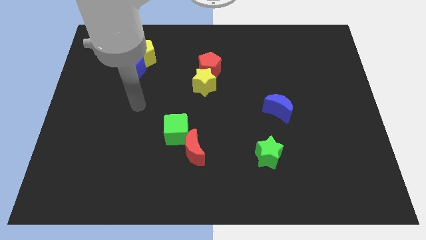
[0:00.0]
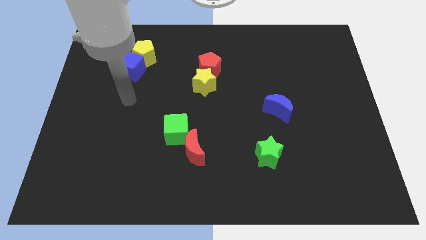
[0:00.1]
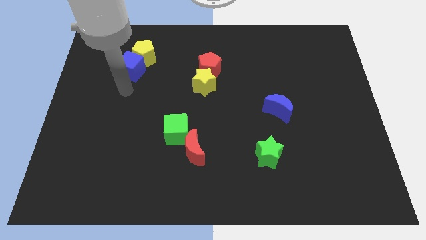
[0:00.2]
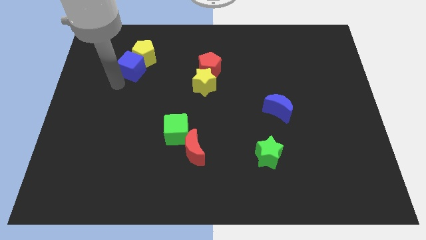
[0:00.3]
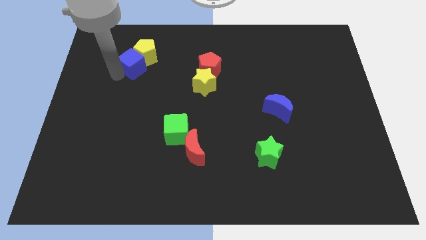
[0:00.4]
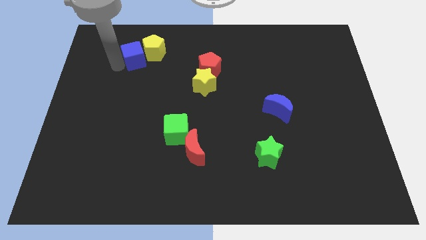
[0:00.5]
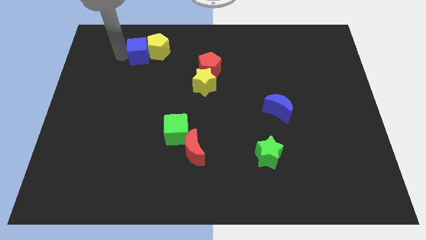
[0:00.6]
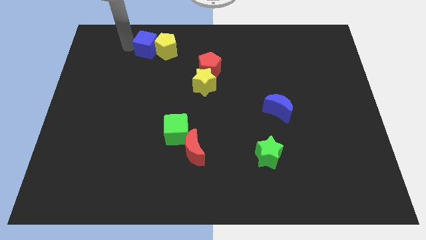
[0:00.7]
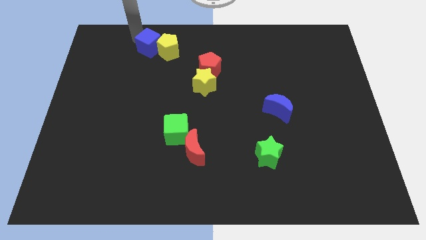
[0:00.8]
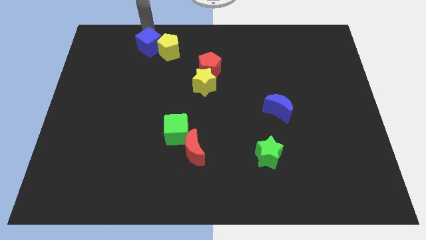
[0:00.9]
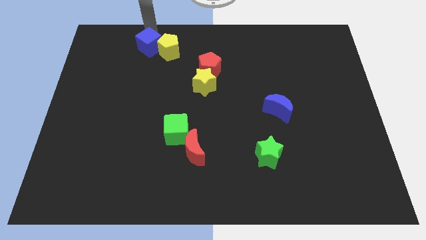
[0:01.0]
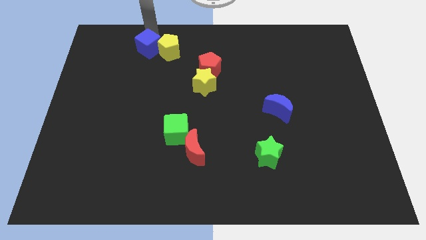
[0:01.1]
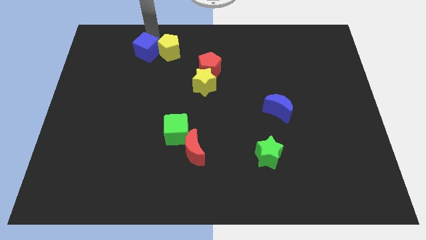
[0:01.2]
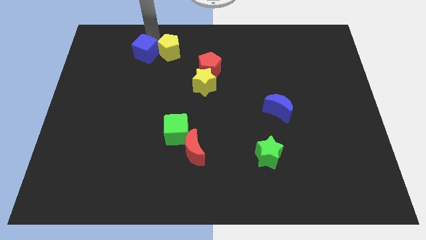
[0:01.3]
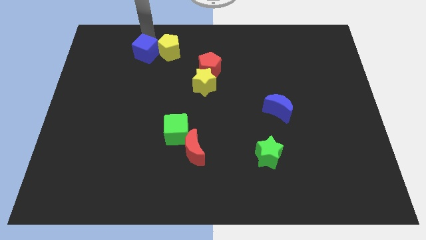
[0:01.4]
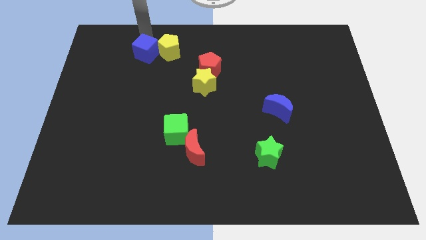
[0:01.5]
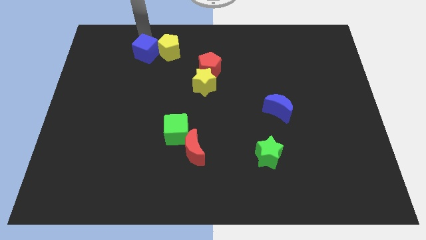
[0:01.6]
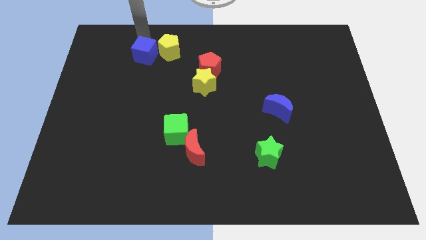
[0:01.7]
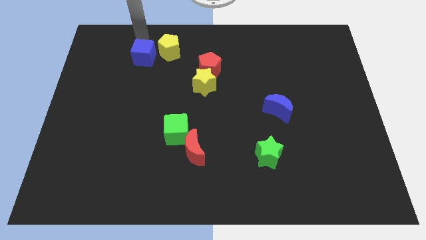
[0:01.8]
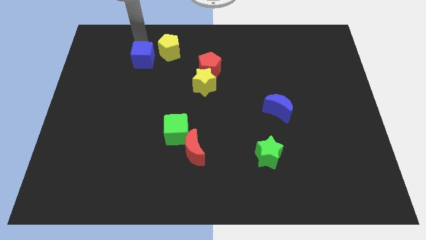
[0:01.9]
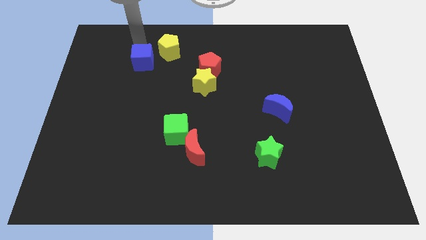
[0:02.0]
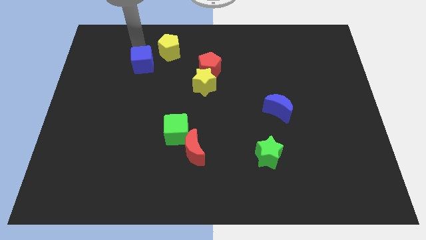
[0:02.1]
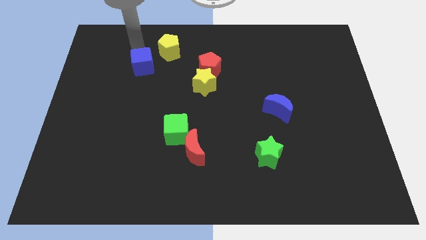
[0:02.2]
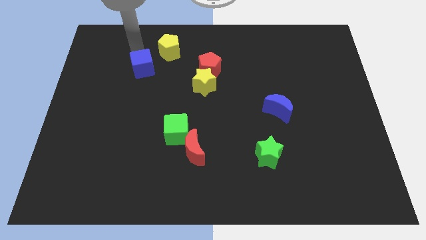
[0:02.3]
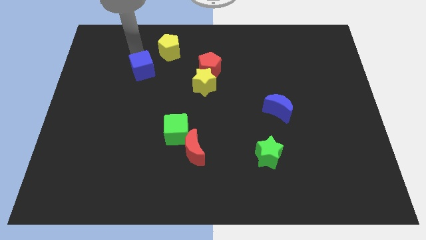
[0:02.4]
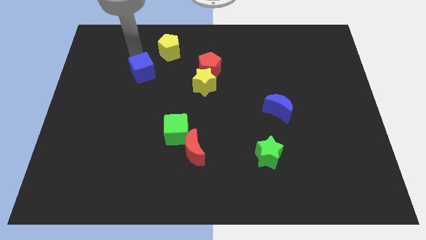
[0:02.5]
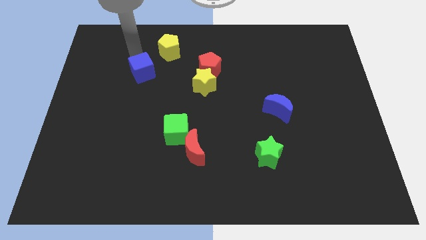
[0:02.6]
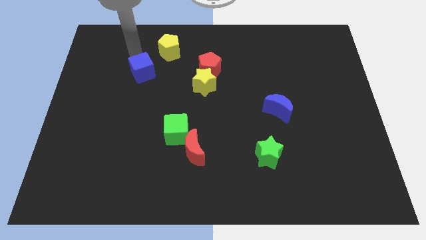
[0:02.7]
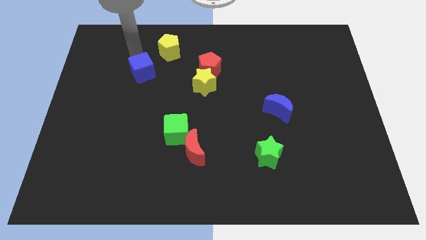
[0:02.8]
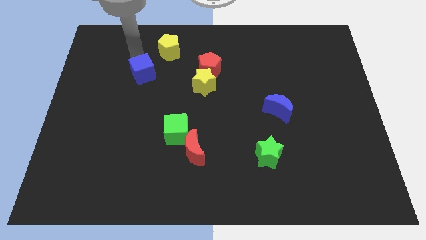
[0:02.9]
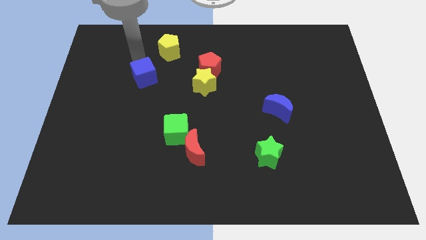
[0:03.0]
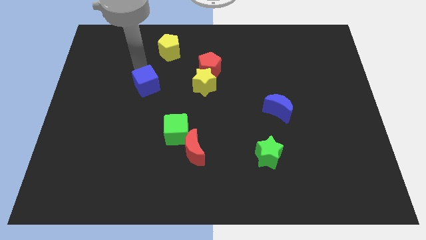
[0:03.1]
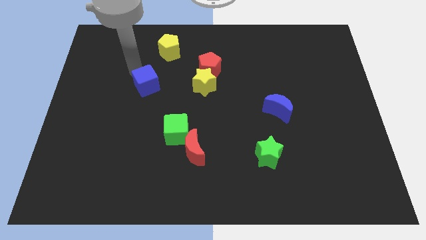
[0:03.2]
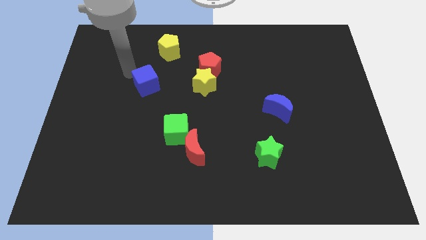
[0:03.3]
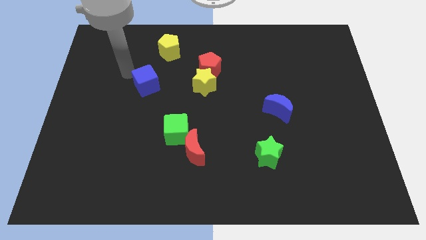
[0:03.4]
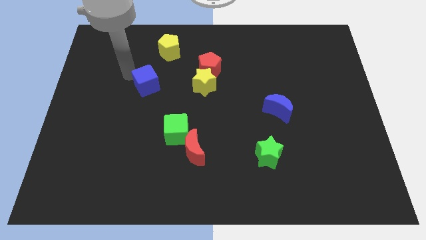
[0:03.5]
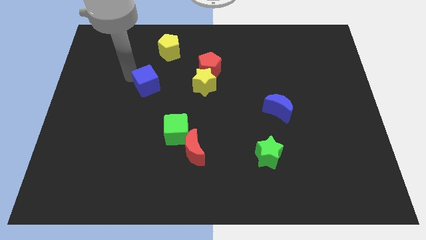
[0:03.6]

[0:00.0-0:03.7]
slide the blue cube a little bit down and right

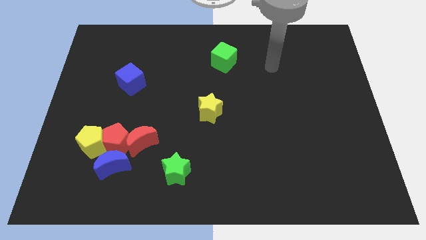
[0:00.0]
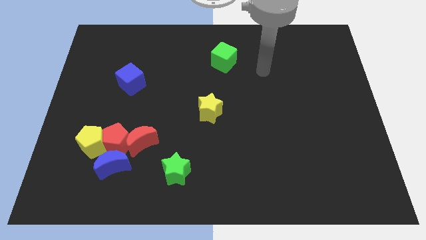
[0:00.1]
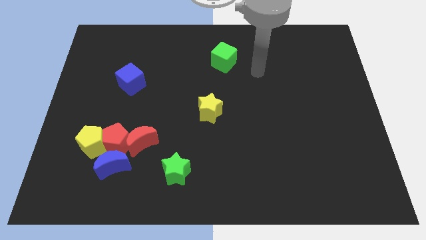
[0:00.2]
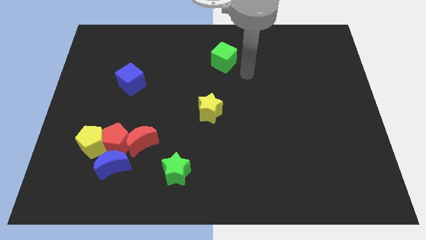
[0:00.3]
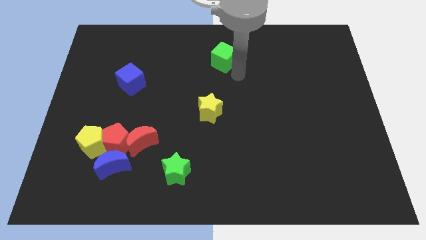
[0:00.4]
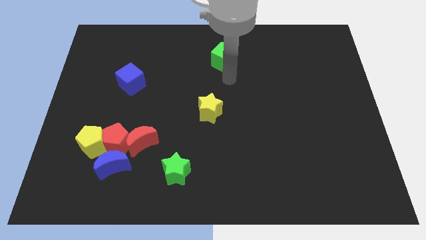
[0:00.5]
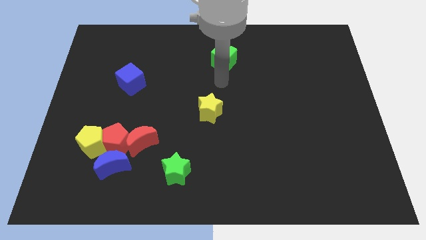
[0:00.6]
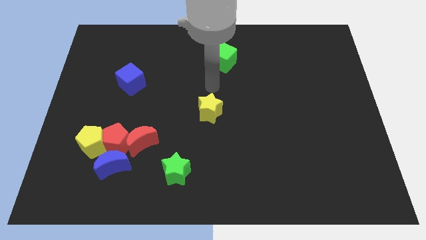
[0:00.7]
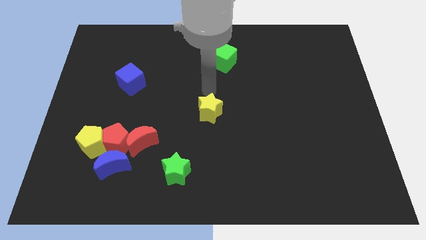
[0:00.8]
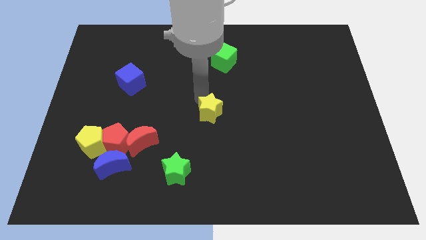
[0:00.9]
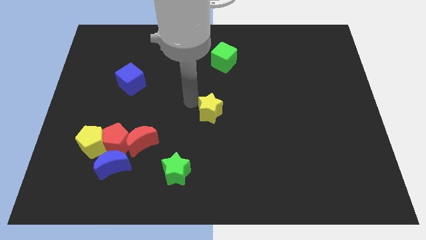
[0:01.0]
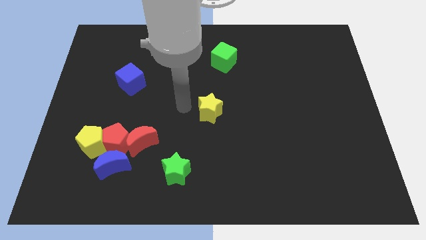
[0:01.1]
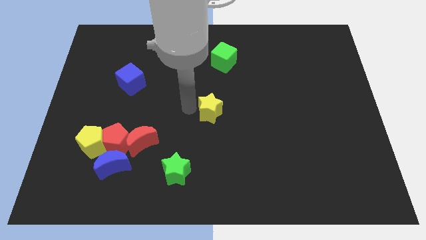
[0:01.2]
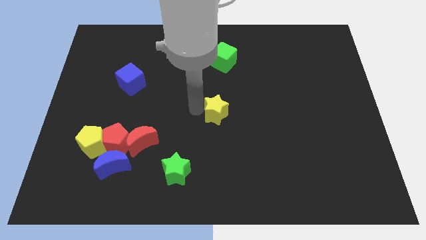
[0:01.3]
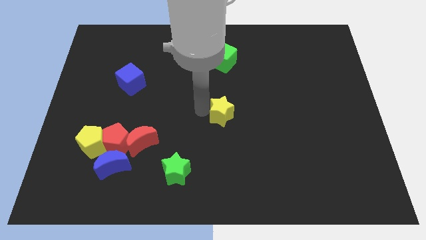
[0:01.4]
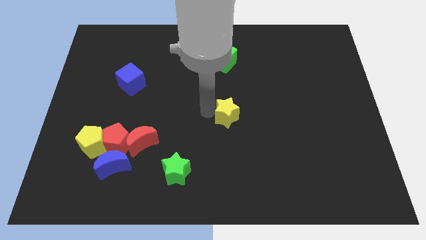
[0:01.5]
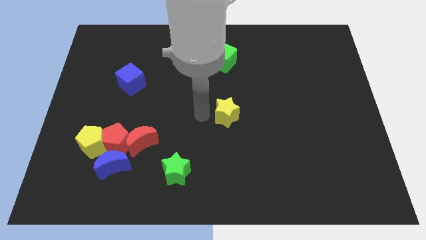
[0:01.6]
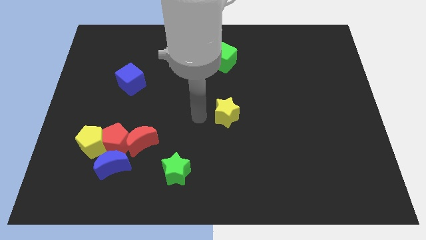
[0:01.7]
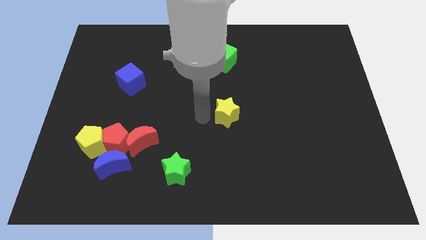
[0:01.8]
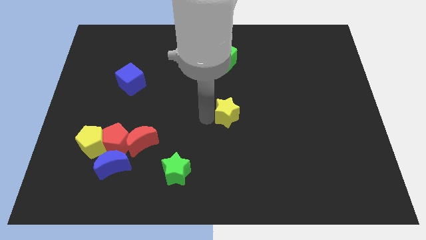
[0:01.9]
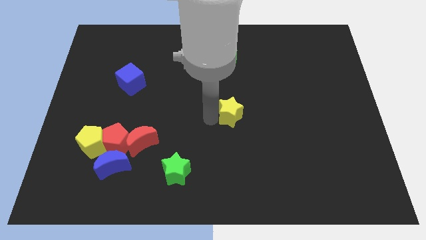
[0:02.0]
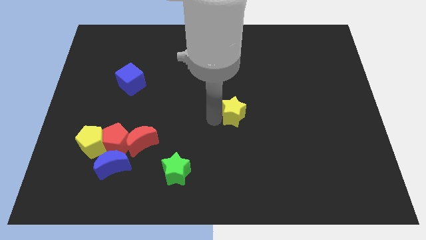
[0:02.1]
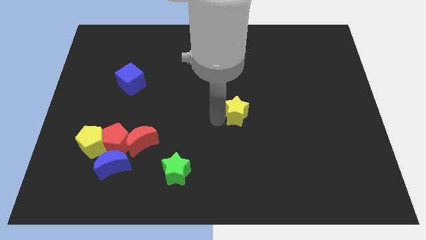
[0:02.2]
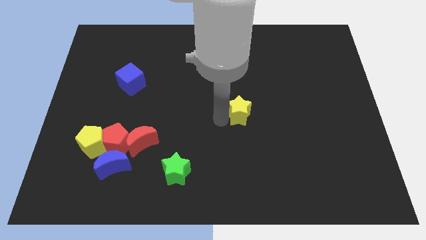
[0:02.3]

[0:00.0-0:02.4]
slightly push the yellow star to the right

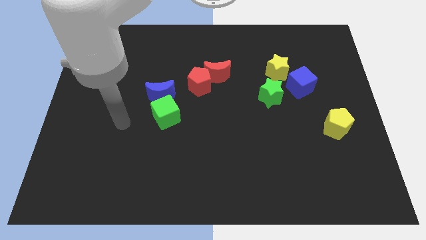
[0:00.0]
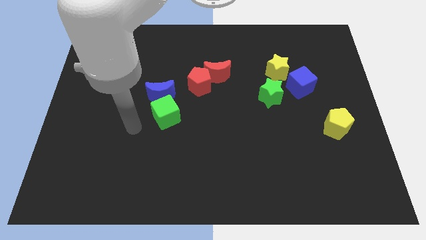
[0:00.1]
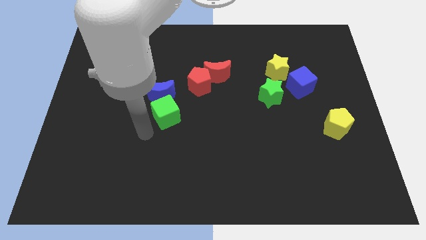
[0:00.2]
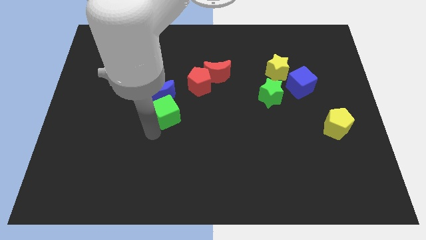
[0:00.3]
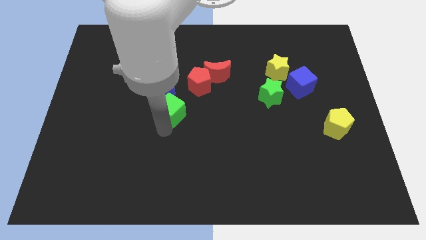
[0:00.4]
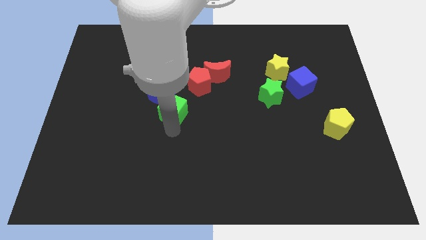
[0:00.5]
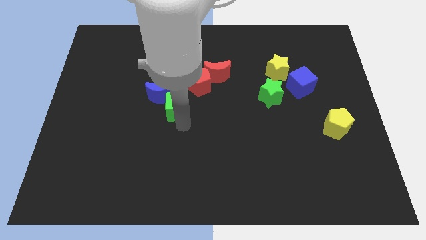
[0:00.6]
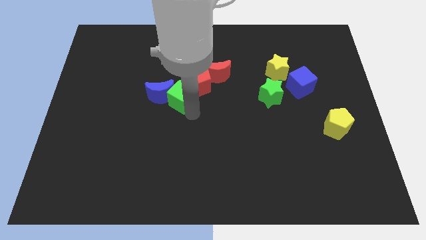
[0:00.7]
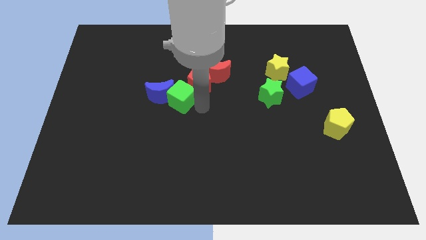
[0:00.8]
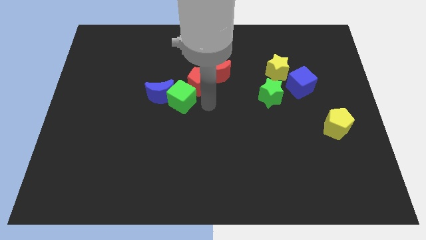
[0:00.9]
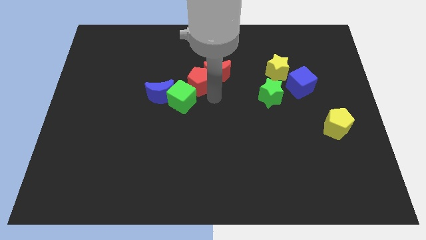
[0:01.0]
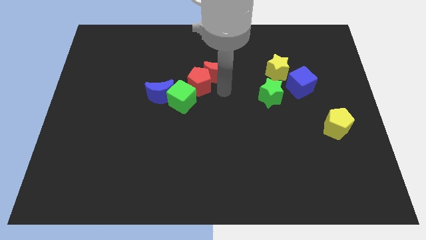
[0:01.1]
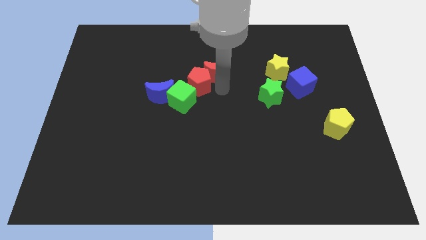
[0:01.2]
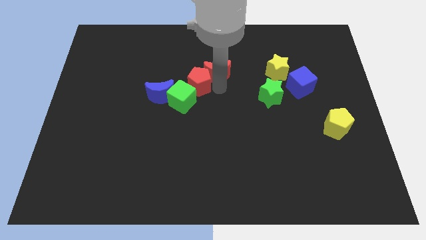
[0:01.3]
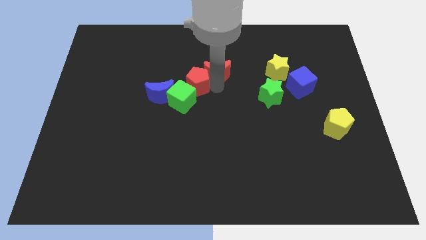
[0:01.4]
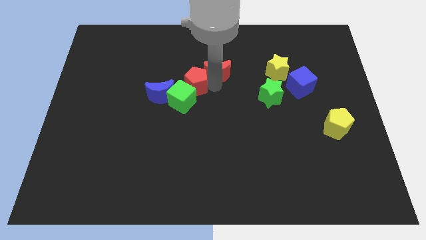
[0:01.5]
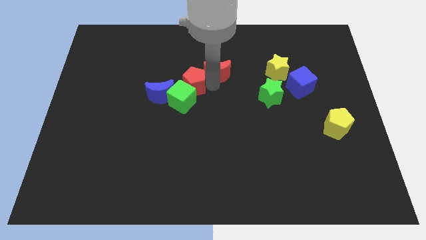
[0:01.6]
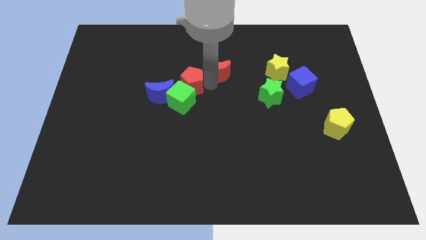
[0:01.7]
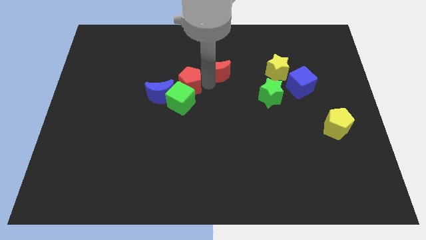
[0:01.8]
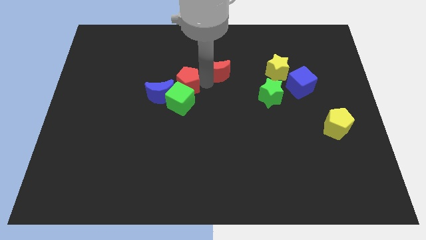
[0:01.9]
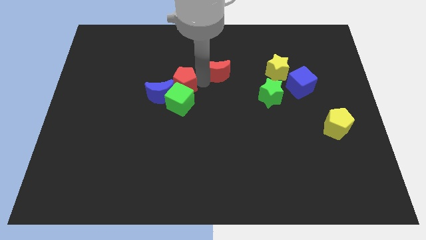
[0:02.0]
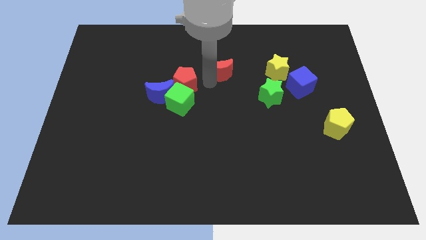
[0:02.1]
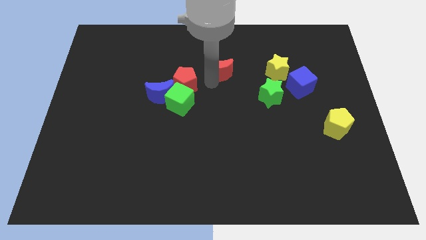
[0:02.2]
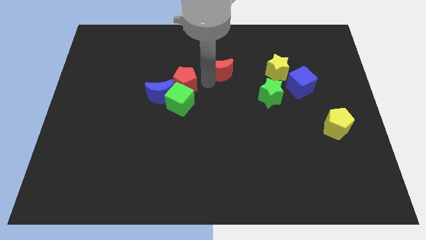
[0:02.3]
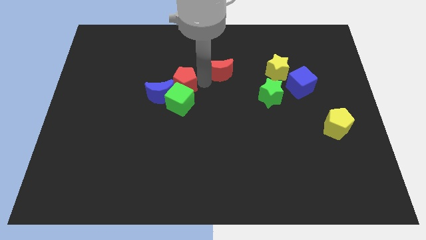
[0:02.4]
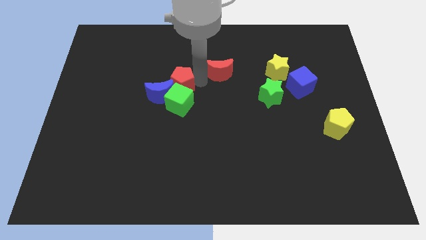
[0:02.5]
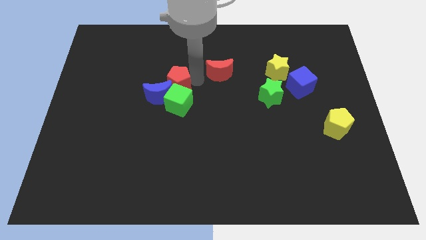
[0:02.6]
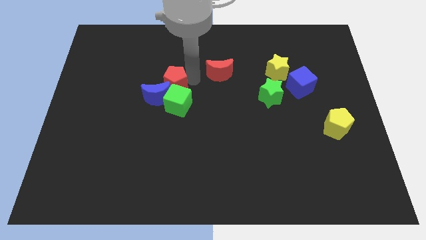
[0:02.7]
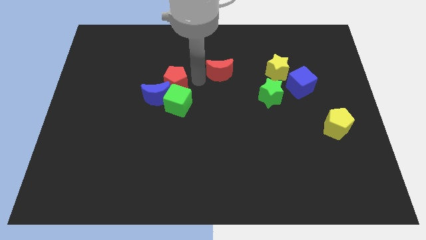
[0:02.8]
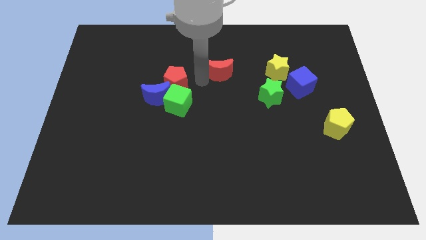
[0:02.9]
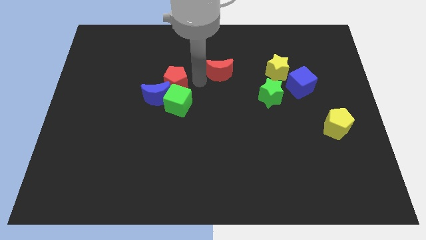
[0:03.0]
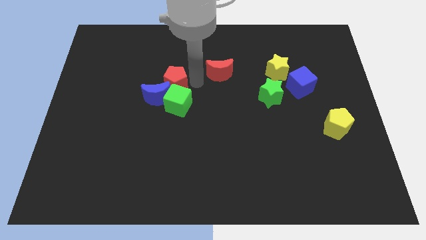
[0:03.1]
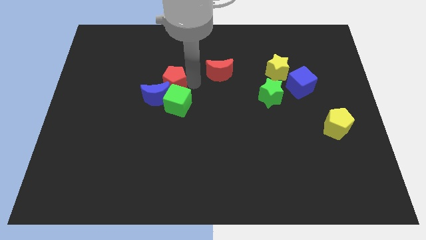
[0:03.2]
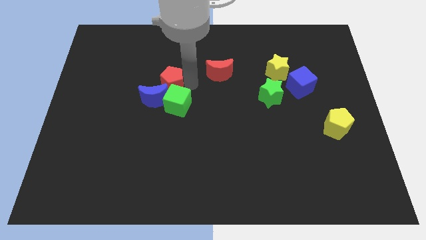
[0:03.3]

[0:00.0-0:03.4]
move the red pentagon a bit to the left
